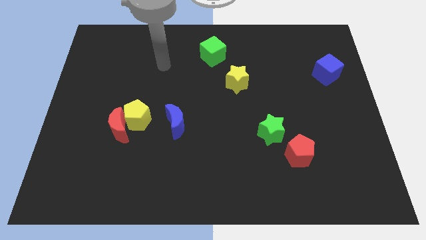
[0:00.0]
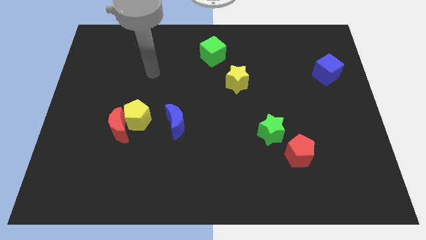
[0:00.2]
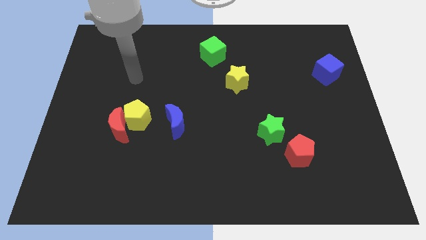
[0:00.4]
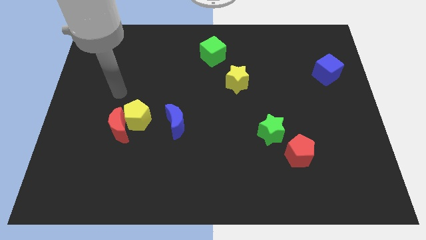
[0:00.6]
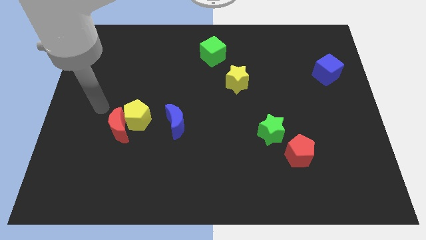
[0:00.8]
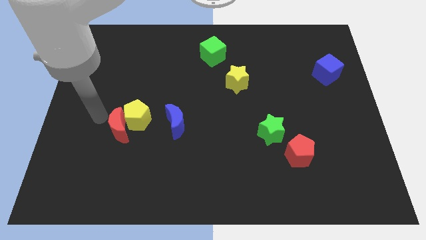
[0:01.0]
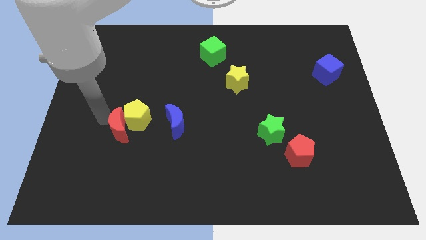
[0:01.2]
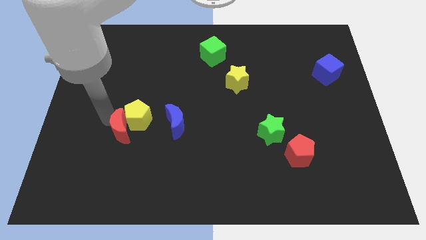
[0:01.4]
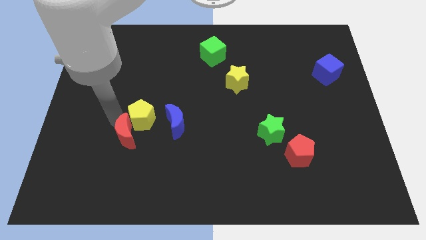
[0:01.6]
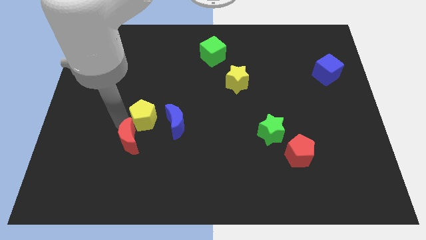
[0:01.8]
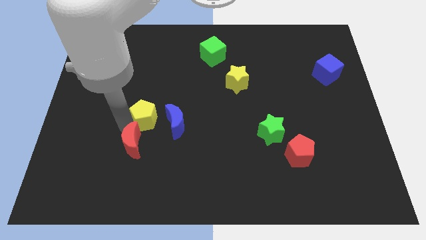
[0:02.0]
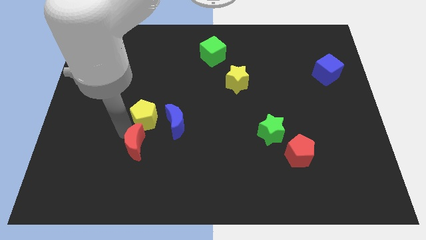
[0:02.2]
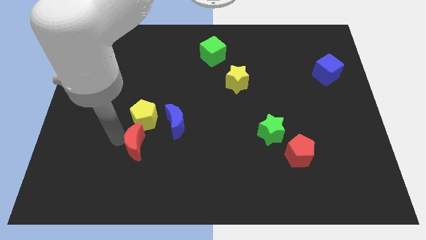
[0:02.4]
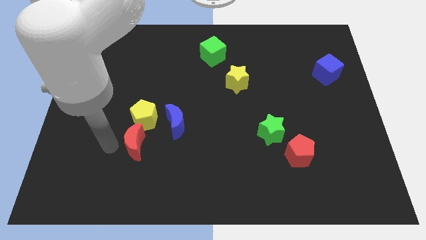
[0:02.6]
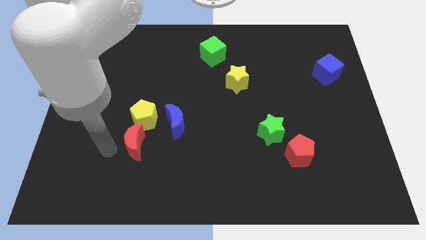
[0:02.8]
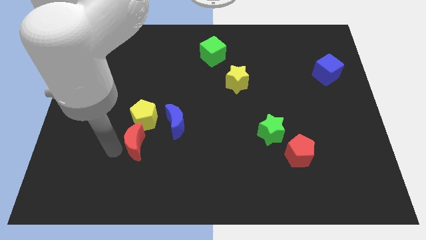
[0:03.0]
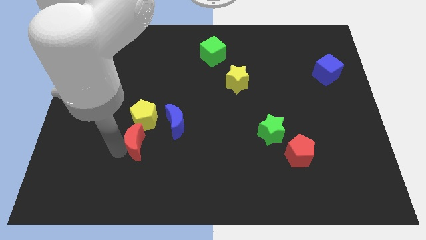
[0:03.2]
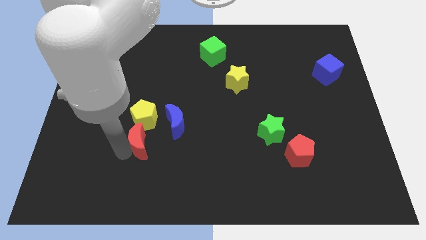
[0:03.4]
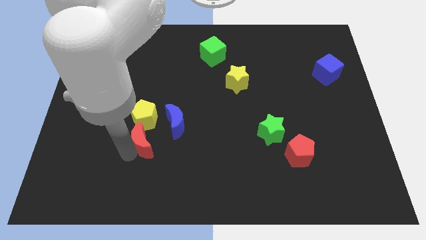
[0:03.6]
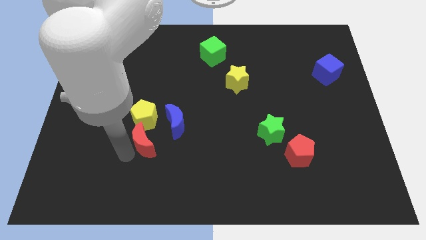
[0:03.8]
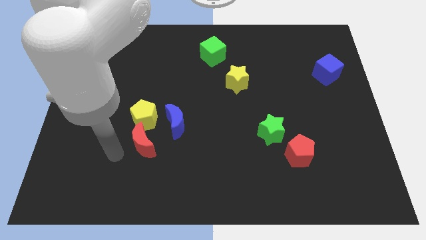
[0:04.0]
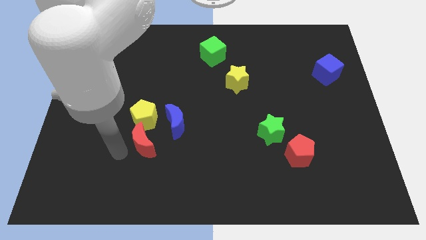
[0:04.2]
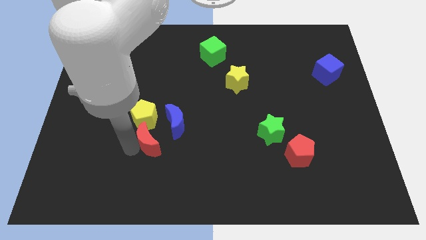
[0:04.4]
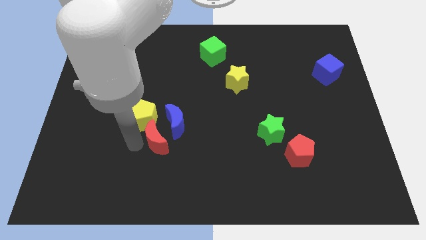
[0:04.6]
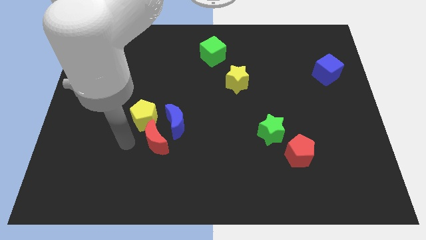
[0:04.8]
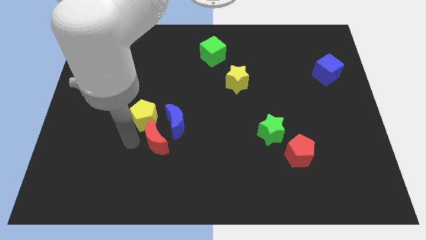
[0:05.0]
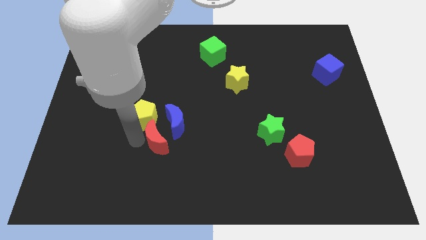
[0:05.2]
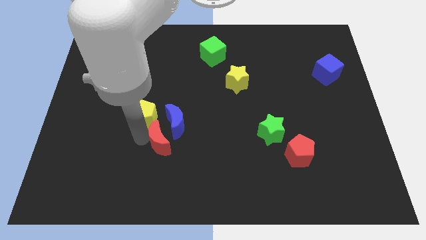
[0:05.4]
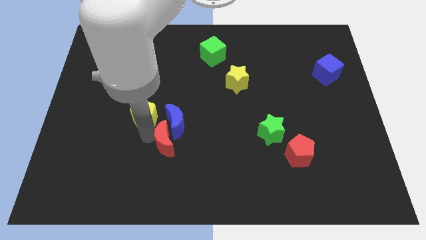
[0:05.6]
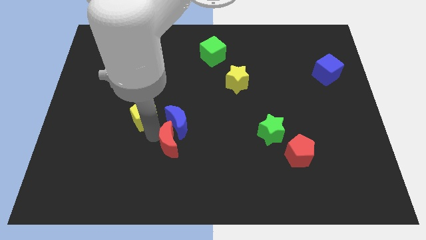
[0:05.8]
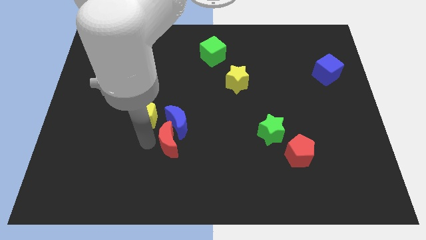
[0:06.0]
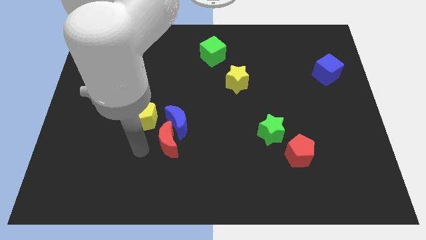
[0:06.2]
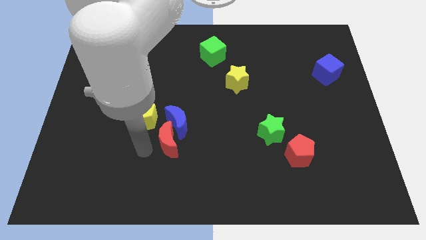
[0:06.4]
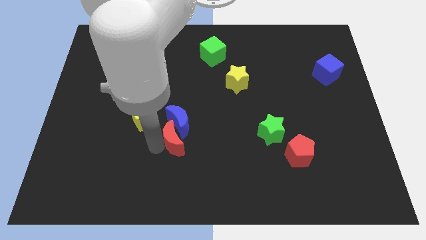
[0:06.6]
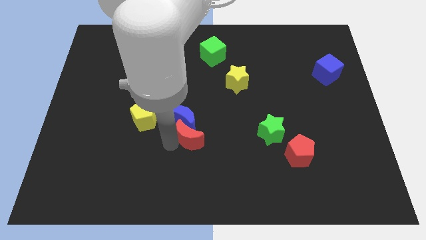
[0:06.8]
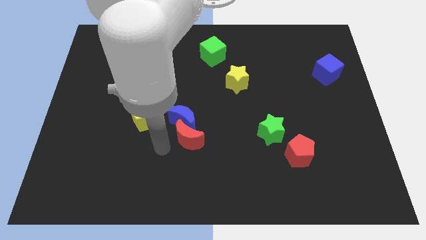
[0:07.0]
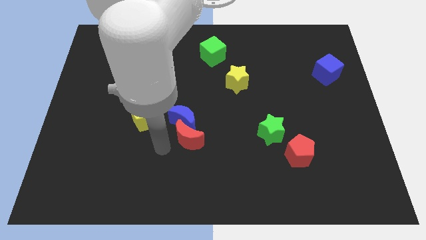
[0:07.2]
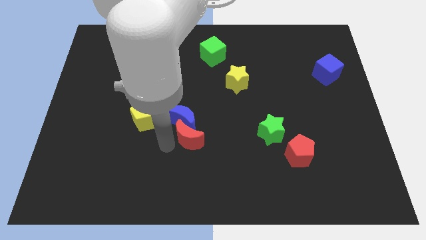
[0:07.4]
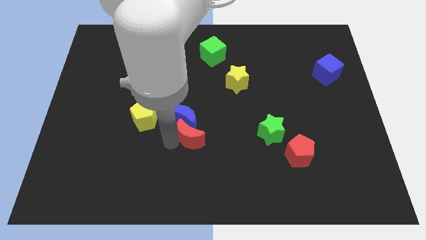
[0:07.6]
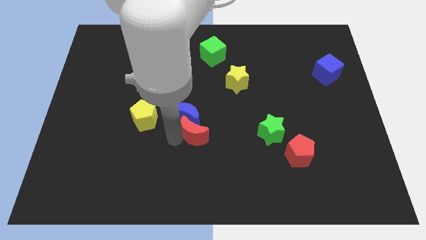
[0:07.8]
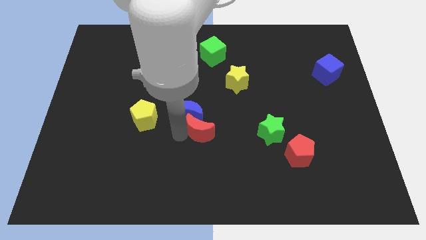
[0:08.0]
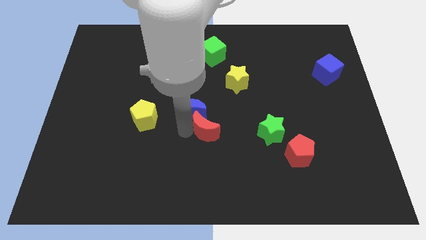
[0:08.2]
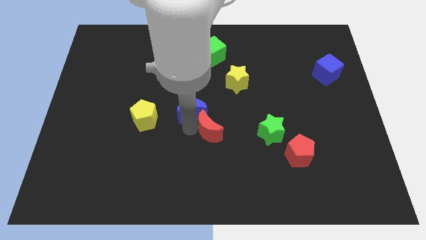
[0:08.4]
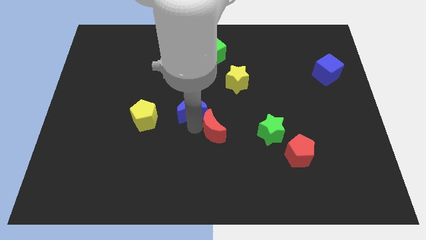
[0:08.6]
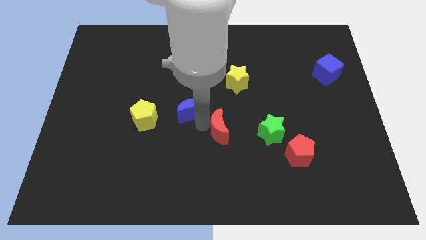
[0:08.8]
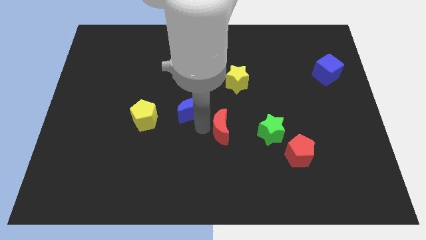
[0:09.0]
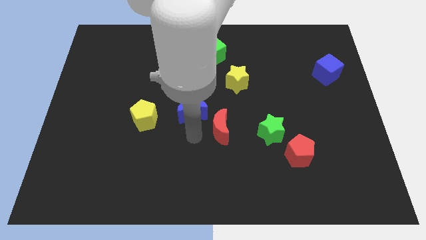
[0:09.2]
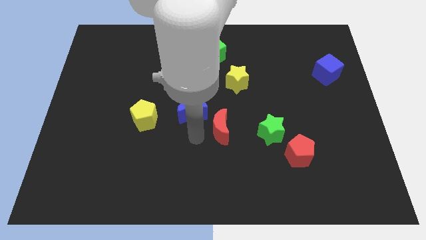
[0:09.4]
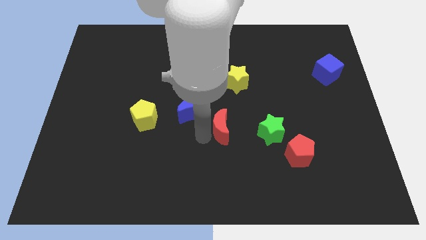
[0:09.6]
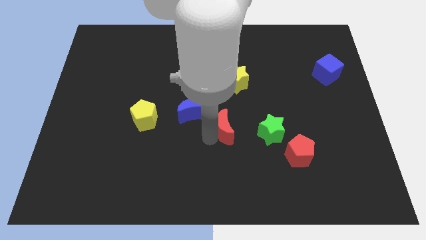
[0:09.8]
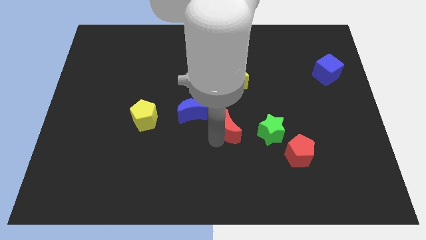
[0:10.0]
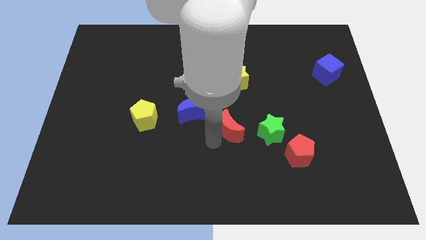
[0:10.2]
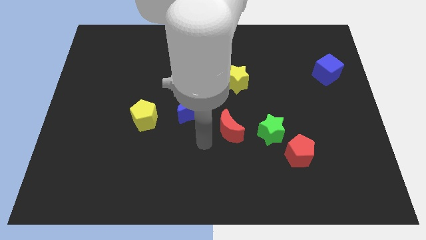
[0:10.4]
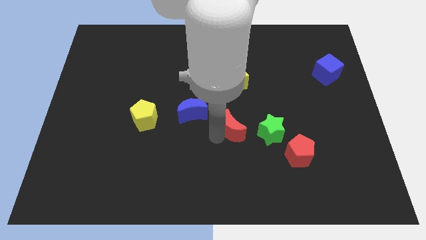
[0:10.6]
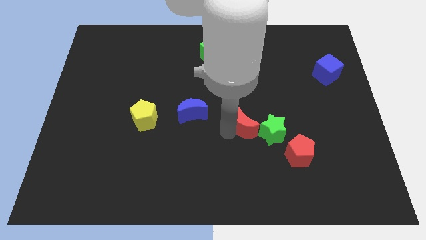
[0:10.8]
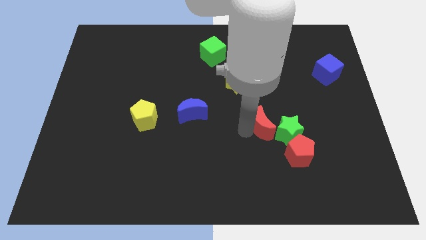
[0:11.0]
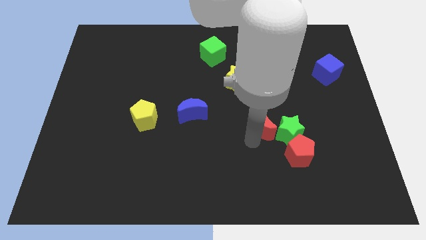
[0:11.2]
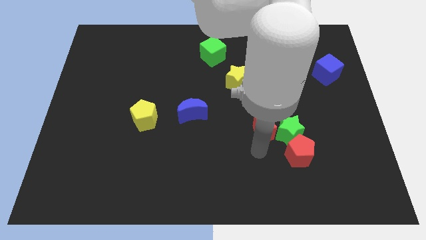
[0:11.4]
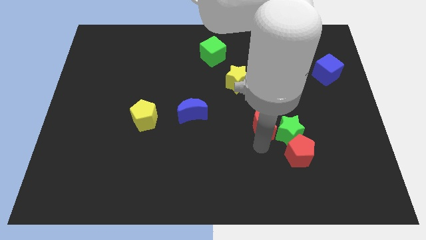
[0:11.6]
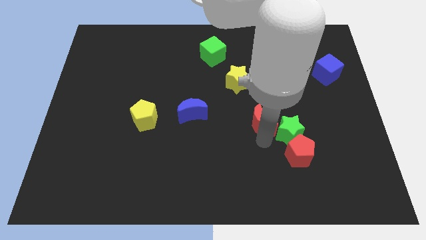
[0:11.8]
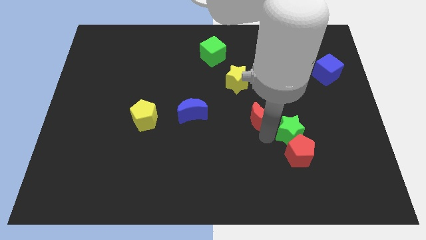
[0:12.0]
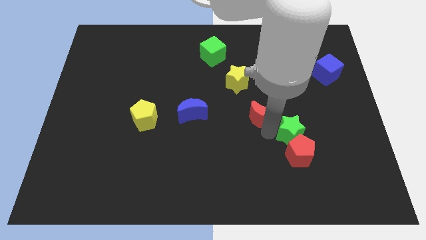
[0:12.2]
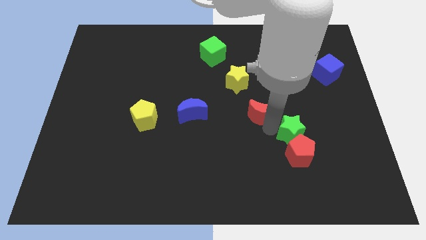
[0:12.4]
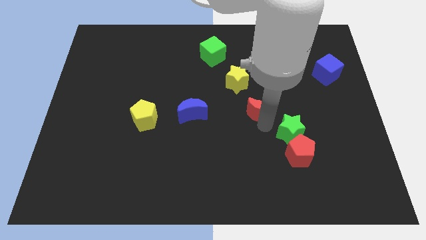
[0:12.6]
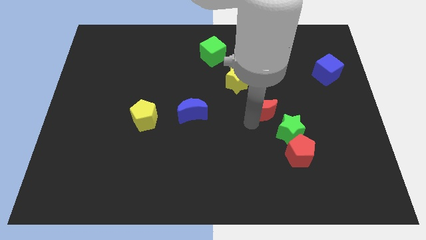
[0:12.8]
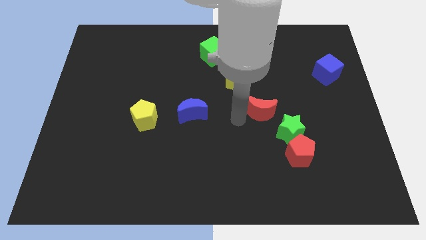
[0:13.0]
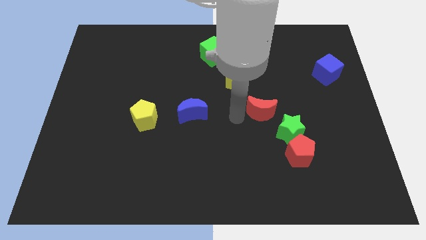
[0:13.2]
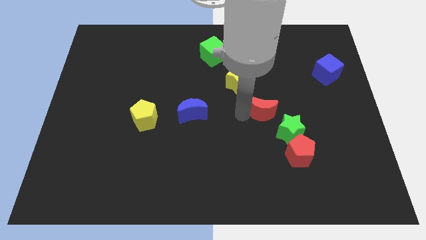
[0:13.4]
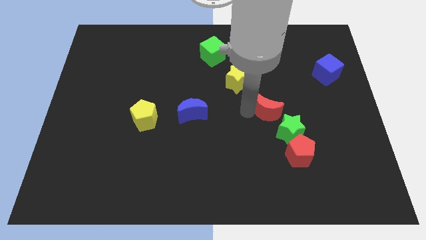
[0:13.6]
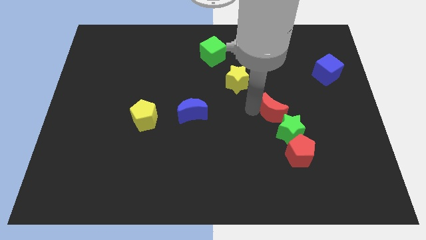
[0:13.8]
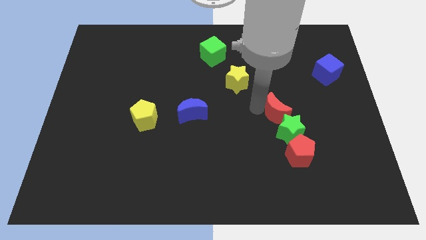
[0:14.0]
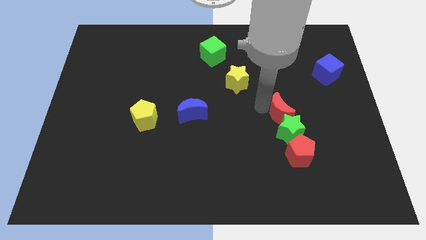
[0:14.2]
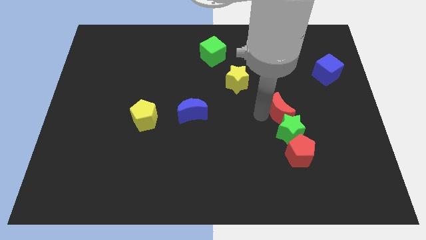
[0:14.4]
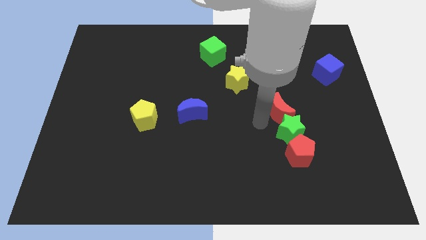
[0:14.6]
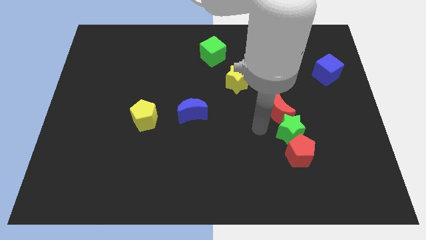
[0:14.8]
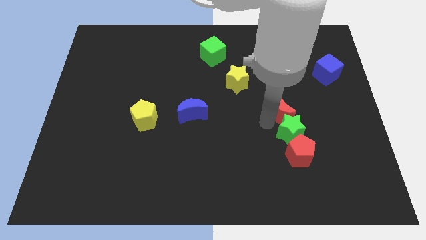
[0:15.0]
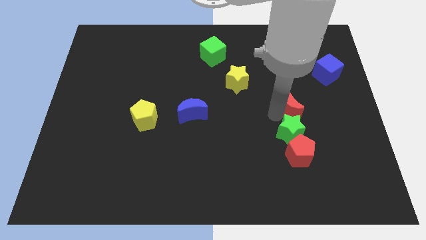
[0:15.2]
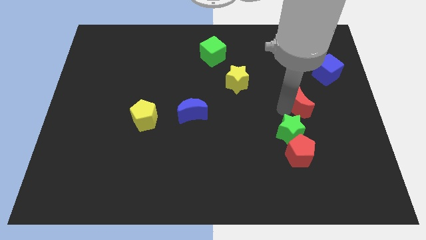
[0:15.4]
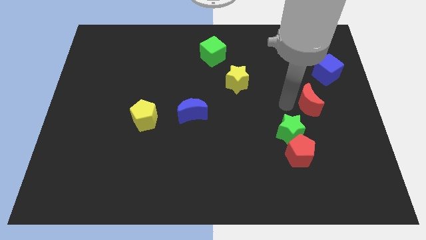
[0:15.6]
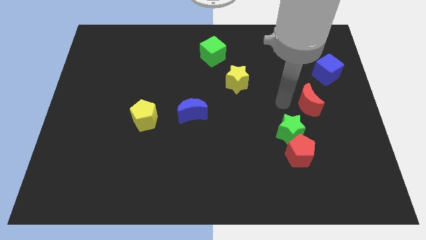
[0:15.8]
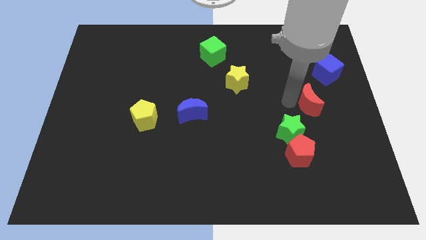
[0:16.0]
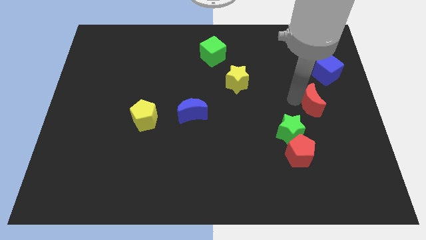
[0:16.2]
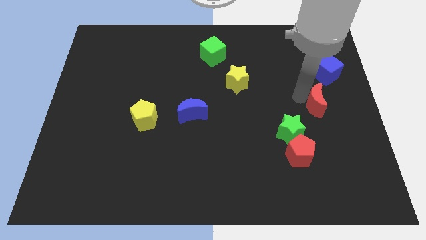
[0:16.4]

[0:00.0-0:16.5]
put the red moon below the blue cube
